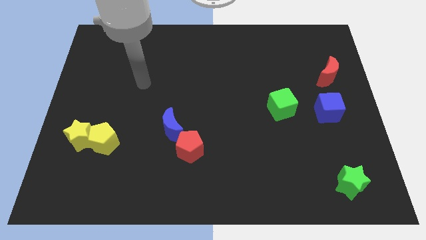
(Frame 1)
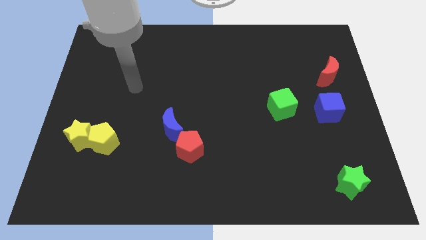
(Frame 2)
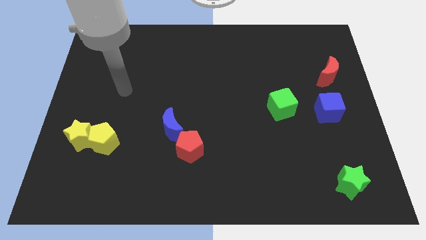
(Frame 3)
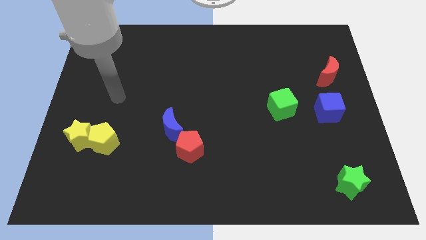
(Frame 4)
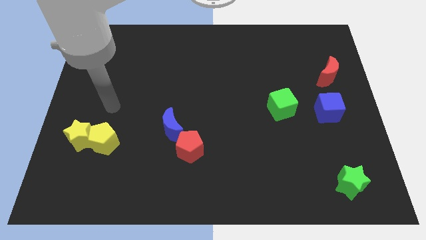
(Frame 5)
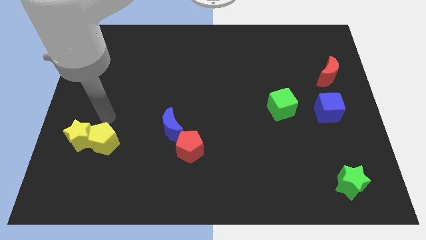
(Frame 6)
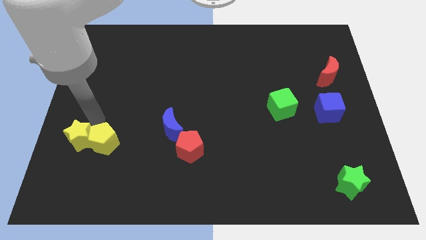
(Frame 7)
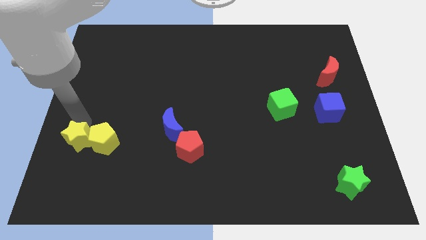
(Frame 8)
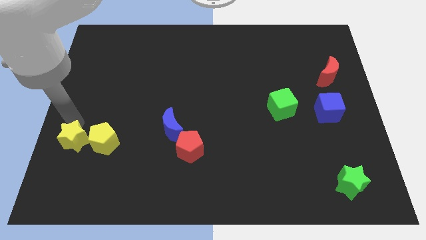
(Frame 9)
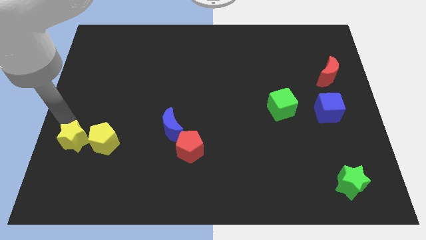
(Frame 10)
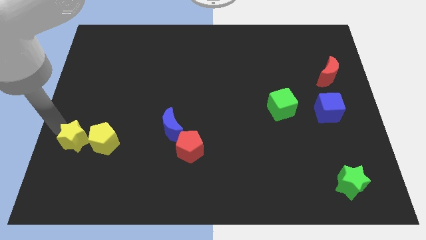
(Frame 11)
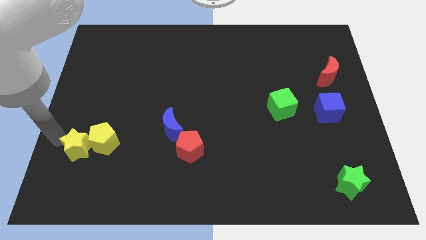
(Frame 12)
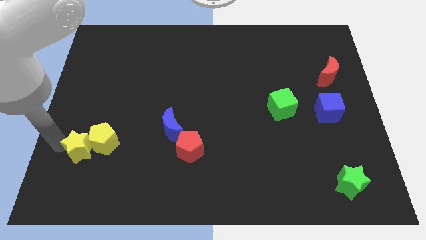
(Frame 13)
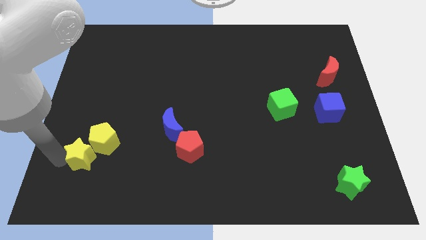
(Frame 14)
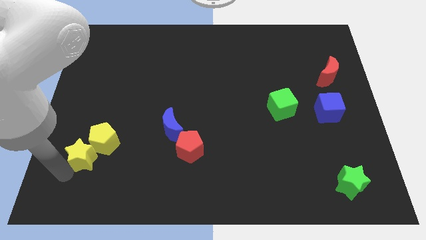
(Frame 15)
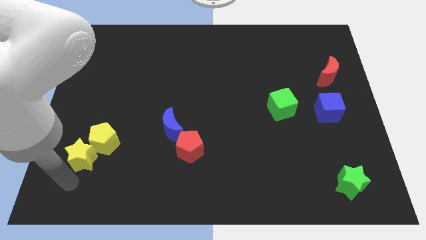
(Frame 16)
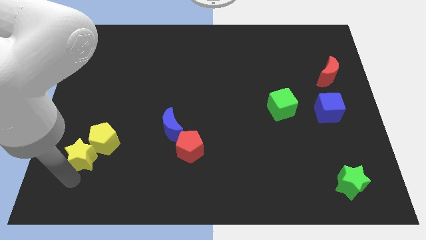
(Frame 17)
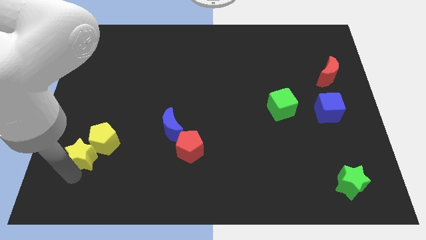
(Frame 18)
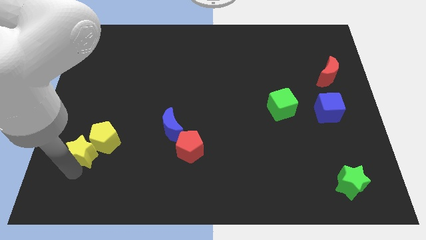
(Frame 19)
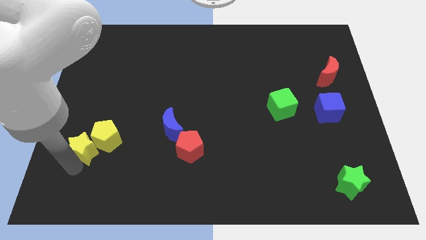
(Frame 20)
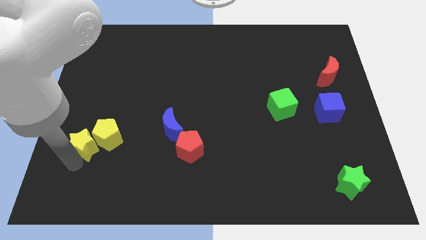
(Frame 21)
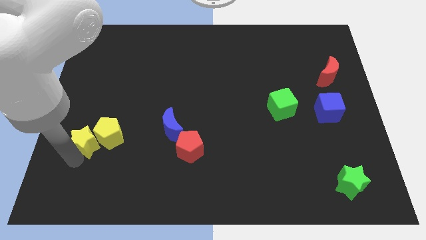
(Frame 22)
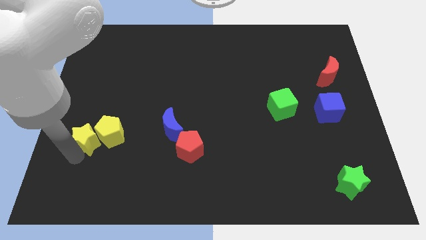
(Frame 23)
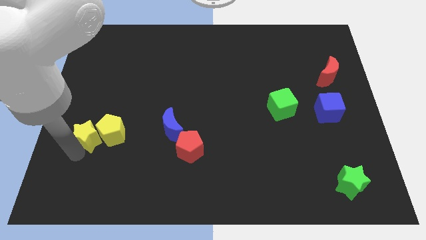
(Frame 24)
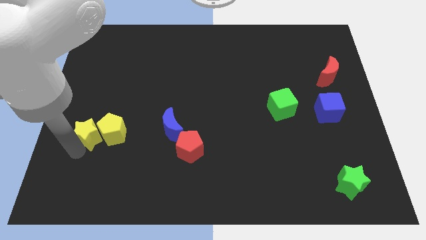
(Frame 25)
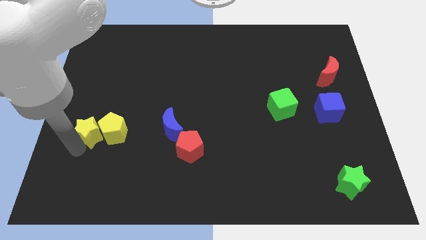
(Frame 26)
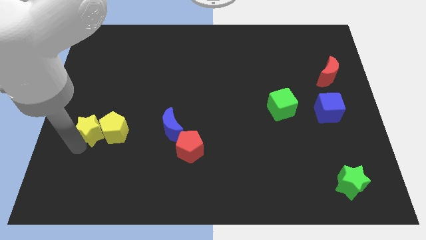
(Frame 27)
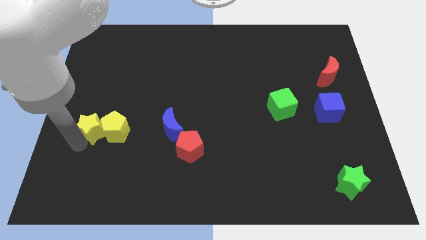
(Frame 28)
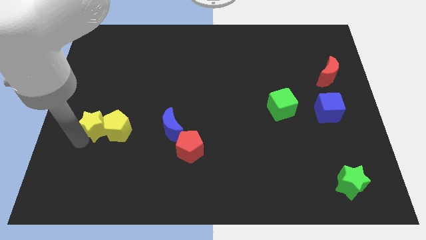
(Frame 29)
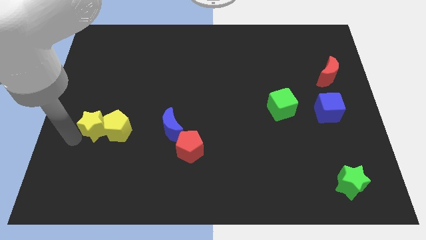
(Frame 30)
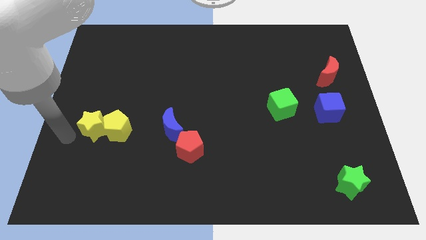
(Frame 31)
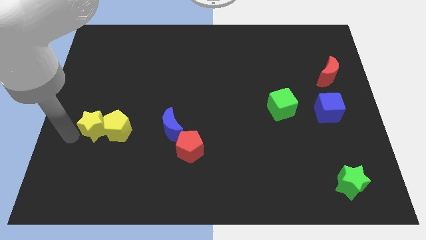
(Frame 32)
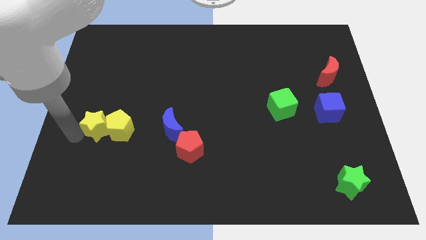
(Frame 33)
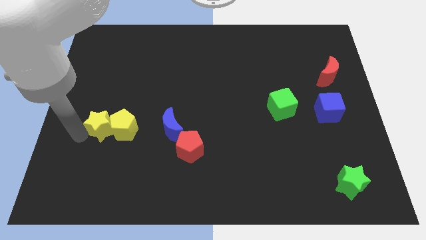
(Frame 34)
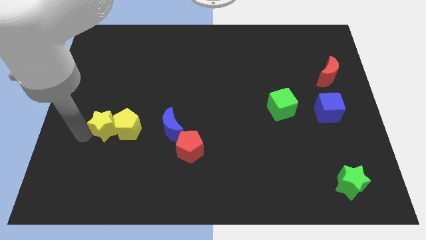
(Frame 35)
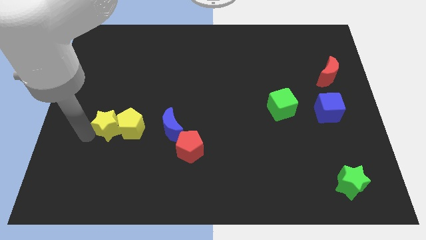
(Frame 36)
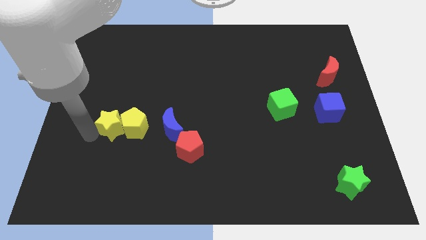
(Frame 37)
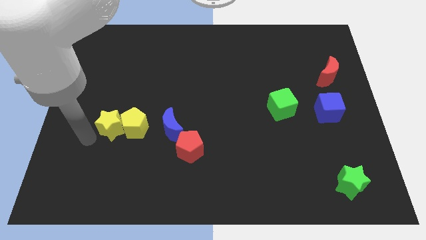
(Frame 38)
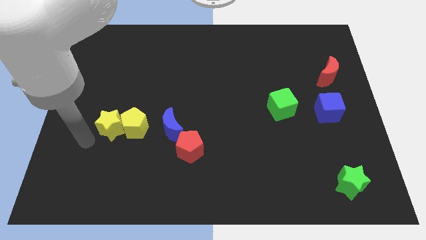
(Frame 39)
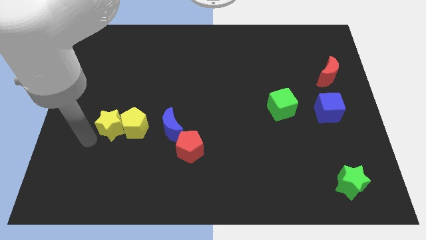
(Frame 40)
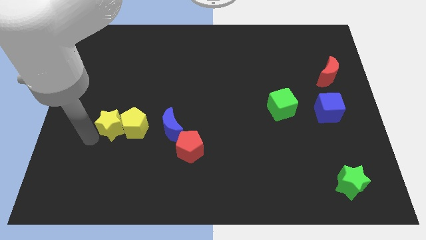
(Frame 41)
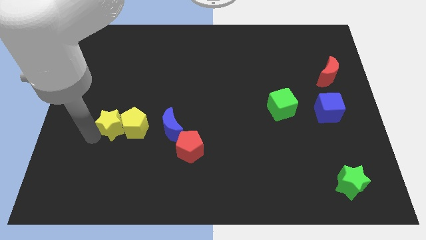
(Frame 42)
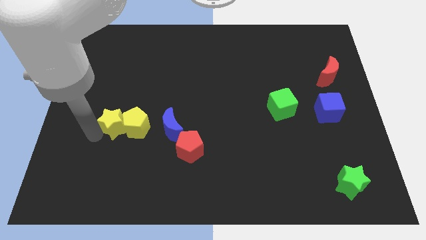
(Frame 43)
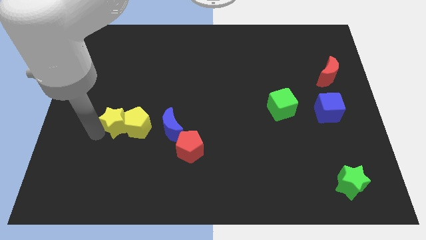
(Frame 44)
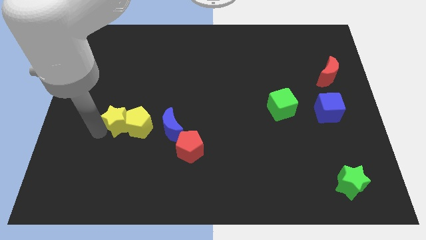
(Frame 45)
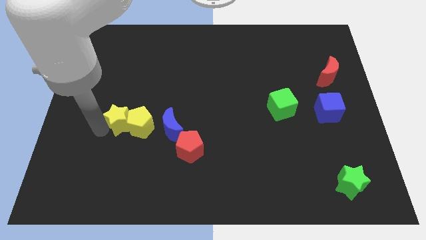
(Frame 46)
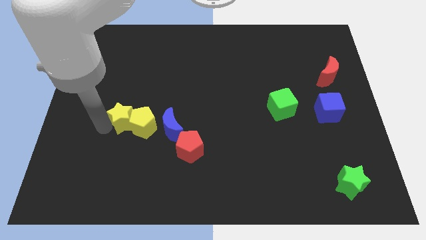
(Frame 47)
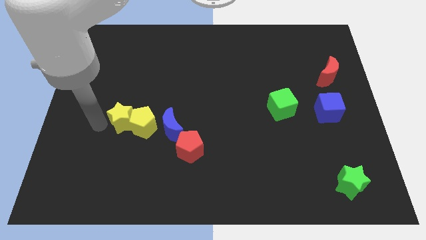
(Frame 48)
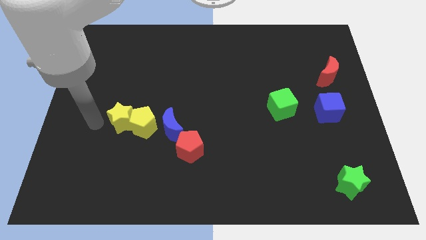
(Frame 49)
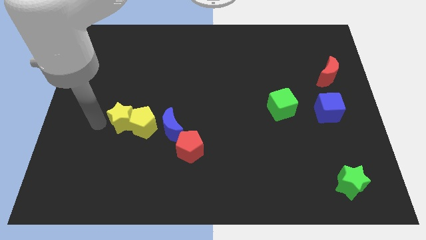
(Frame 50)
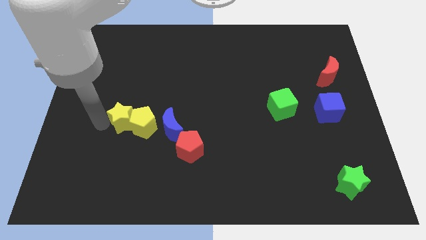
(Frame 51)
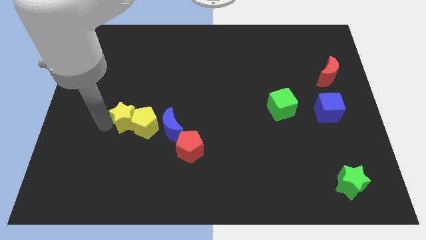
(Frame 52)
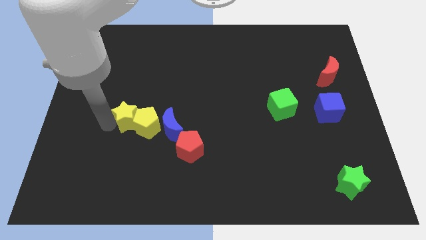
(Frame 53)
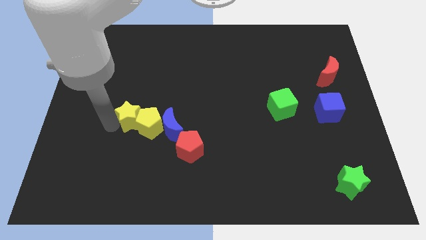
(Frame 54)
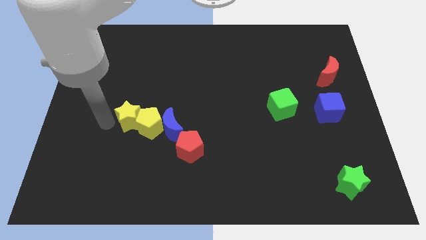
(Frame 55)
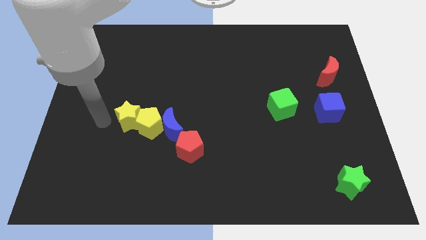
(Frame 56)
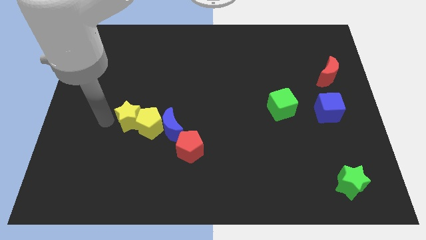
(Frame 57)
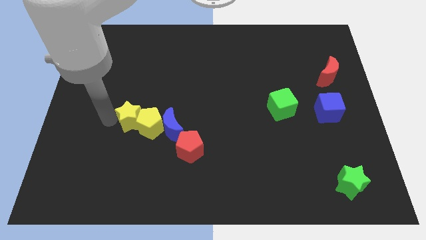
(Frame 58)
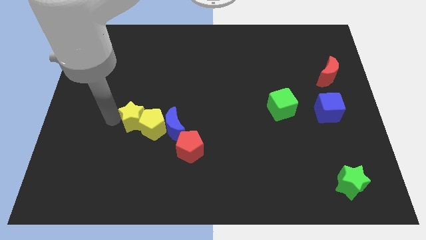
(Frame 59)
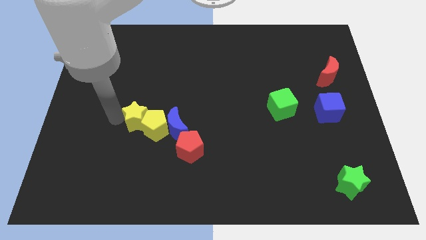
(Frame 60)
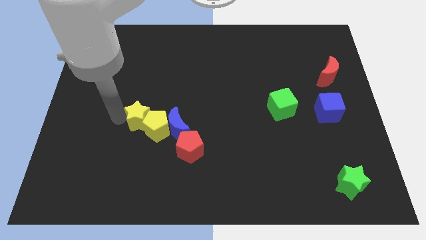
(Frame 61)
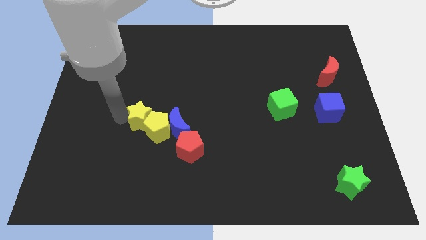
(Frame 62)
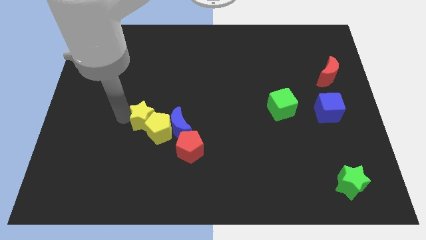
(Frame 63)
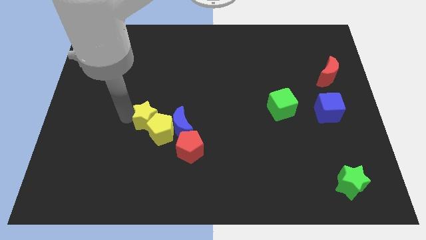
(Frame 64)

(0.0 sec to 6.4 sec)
move the yellow star diagonally up and to the left of the red pentagon

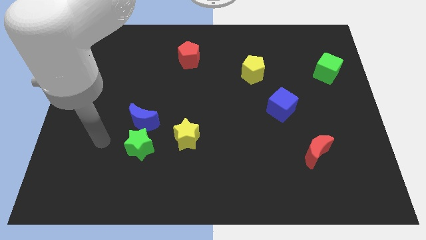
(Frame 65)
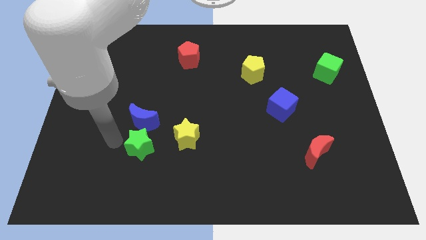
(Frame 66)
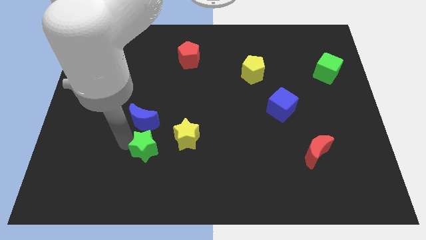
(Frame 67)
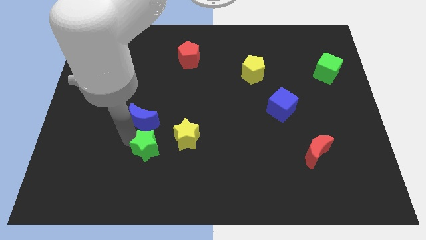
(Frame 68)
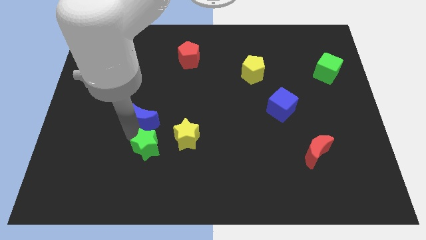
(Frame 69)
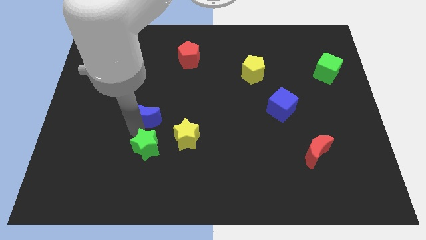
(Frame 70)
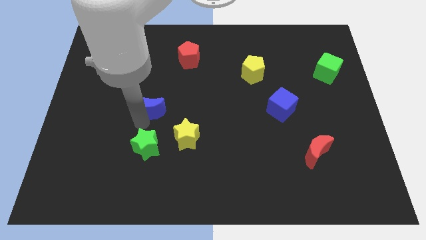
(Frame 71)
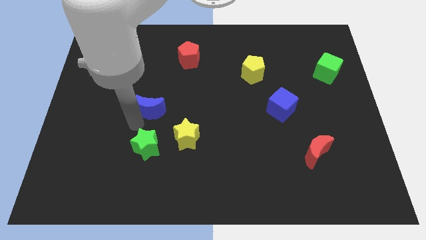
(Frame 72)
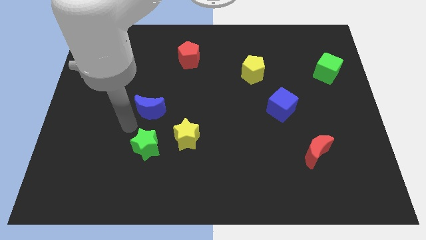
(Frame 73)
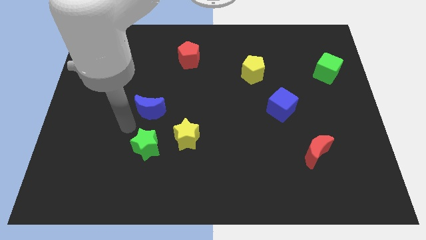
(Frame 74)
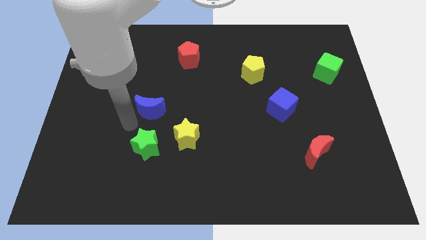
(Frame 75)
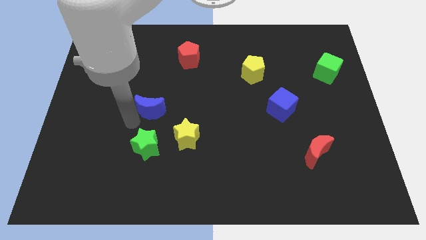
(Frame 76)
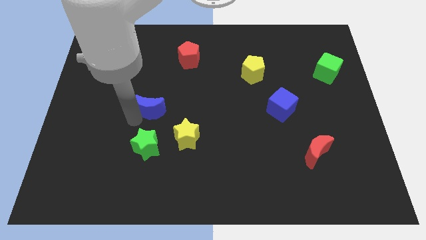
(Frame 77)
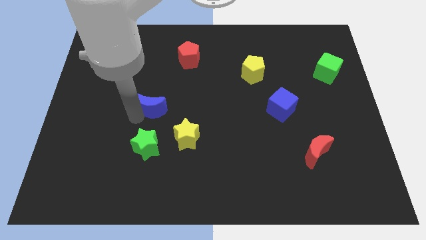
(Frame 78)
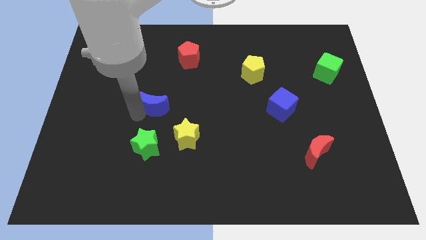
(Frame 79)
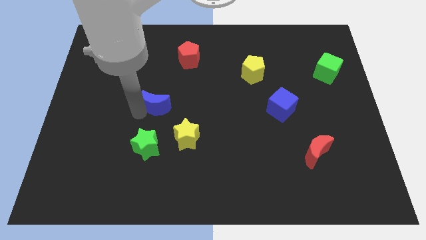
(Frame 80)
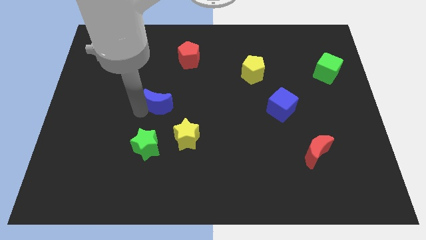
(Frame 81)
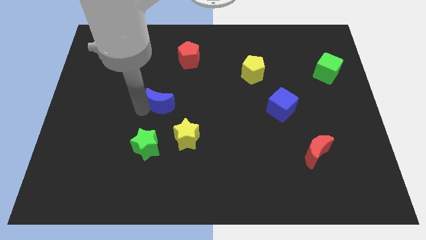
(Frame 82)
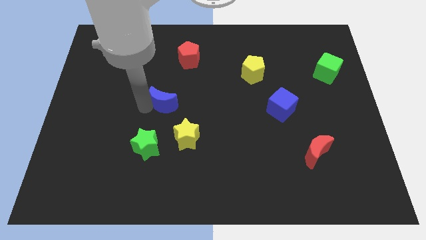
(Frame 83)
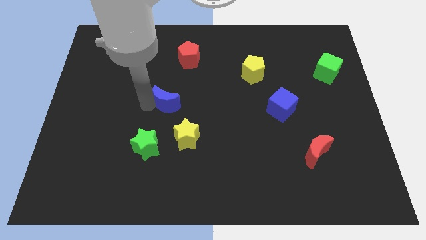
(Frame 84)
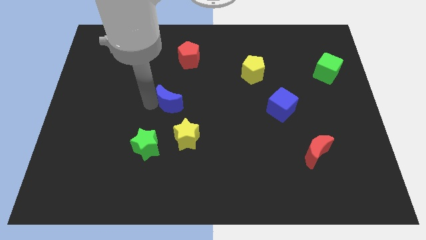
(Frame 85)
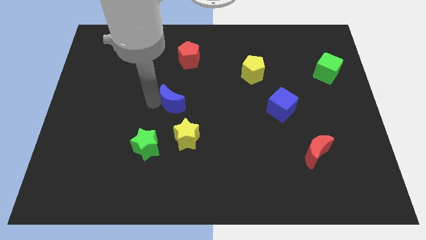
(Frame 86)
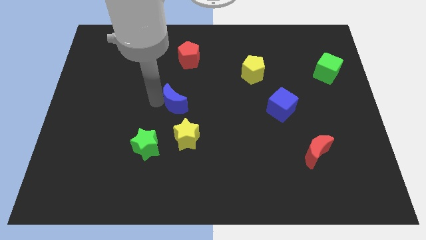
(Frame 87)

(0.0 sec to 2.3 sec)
put the blue moon to the bottom side of the red pentagon
